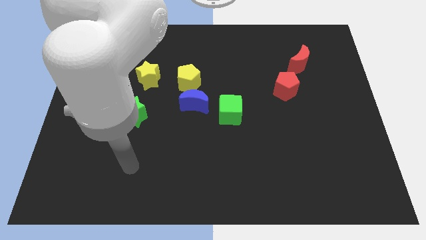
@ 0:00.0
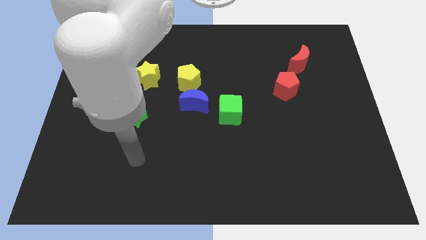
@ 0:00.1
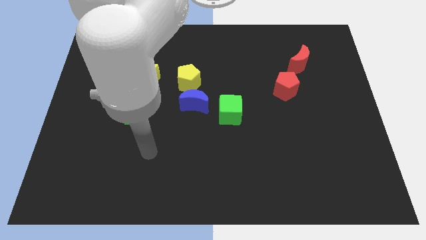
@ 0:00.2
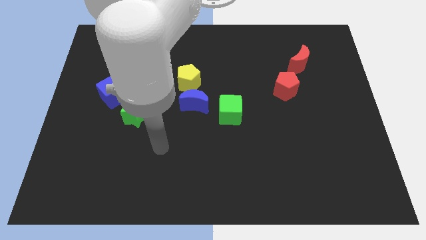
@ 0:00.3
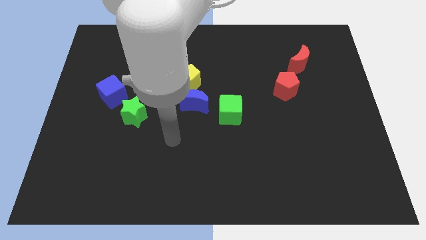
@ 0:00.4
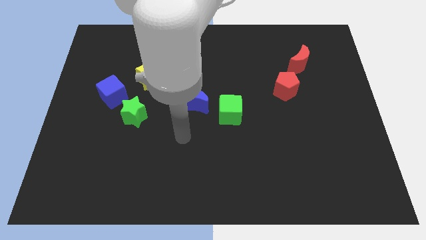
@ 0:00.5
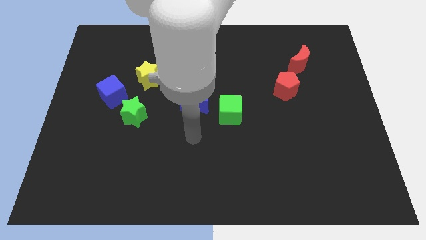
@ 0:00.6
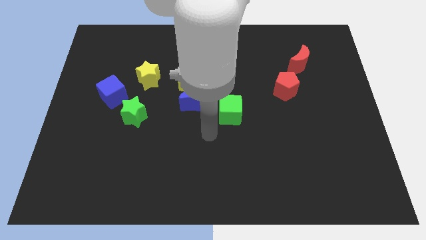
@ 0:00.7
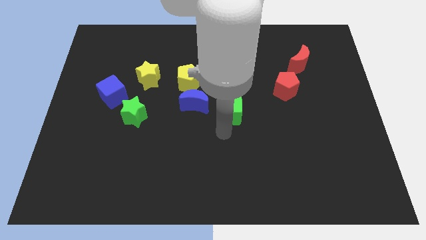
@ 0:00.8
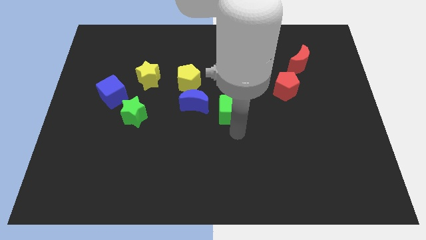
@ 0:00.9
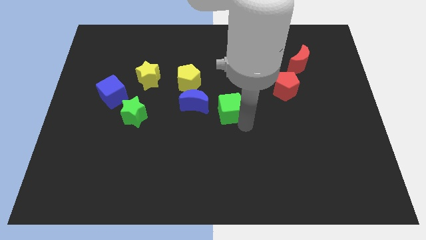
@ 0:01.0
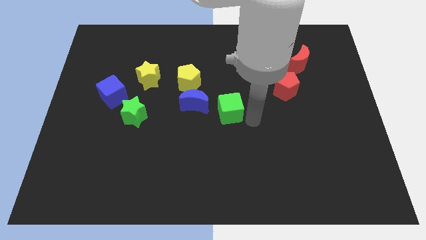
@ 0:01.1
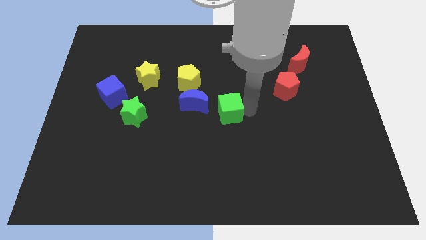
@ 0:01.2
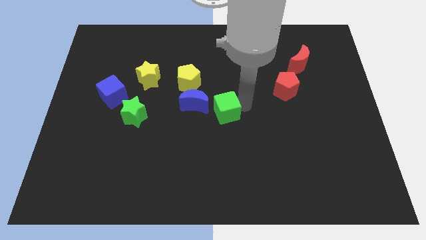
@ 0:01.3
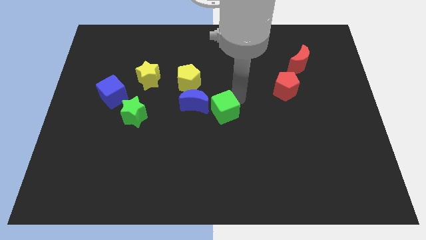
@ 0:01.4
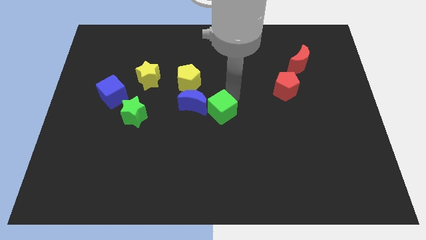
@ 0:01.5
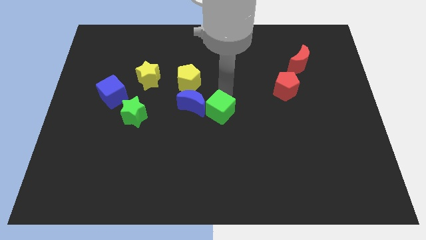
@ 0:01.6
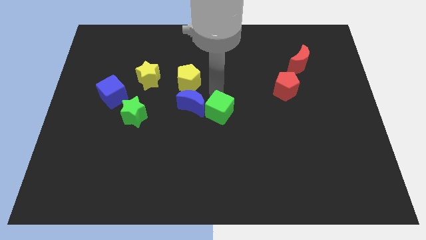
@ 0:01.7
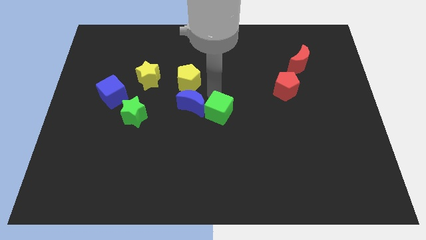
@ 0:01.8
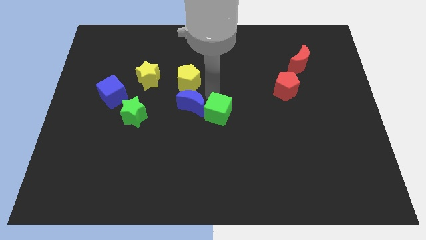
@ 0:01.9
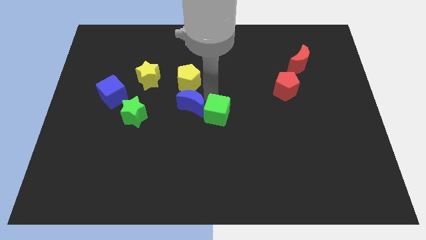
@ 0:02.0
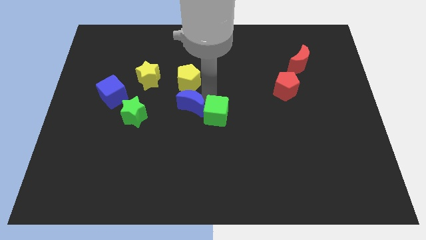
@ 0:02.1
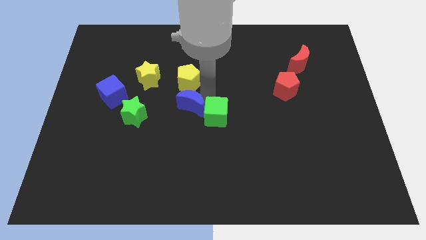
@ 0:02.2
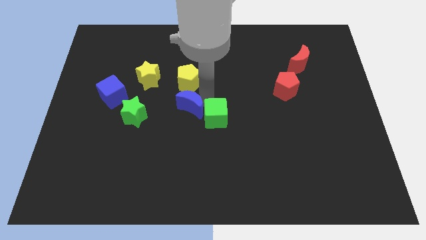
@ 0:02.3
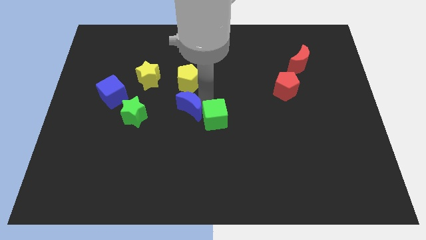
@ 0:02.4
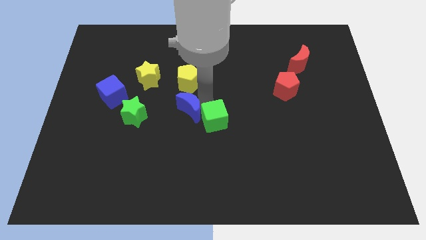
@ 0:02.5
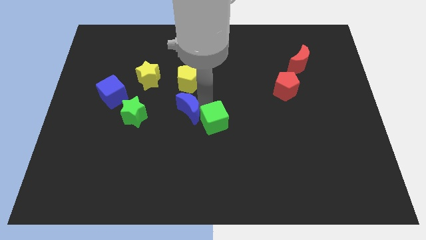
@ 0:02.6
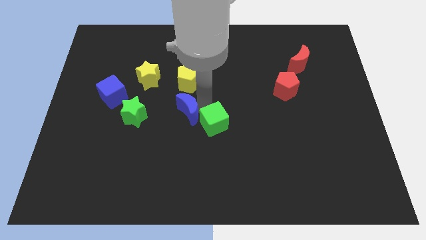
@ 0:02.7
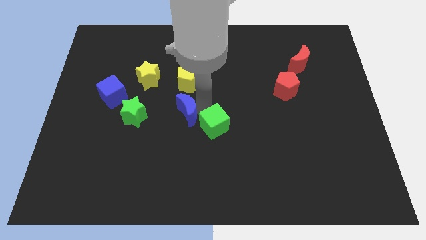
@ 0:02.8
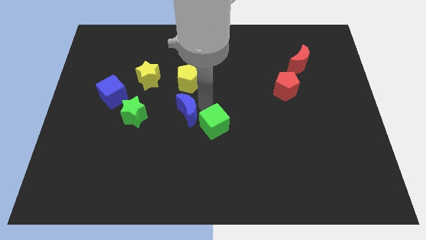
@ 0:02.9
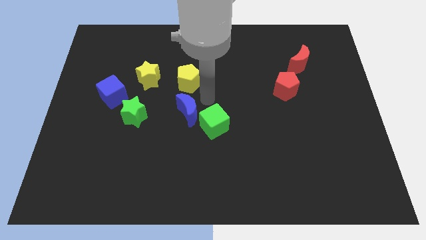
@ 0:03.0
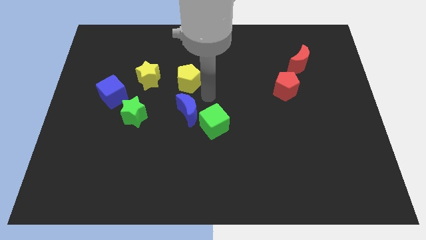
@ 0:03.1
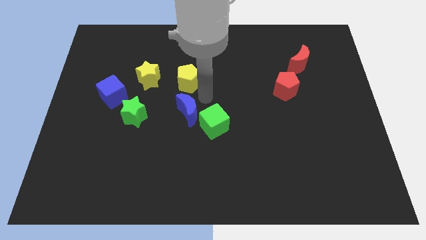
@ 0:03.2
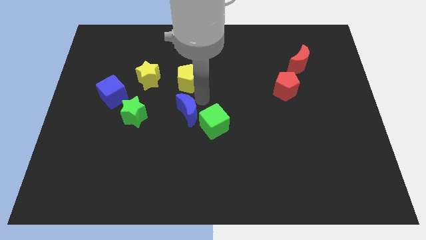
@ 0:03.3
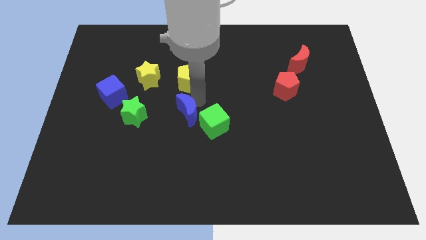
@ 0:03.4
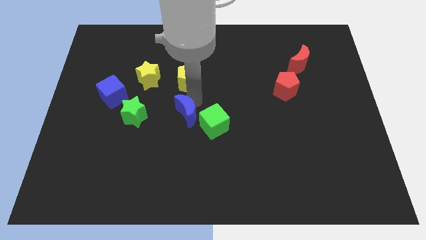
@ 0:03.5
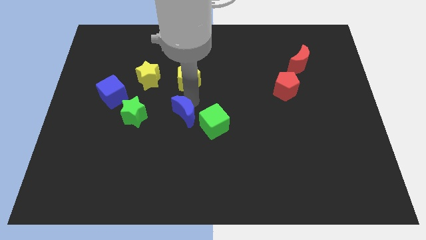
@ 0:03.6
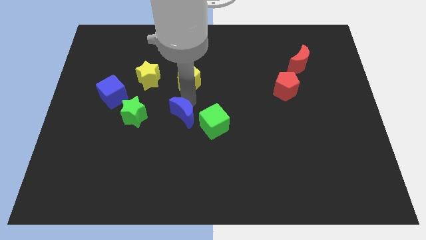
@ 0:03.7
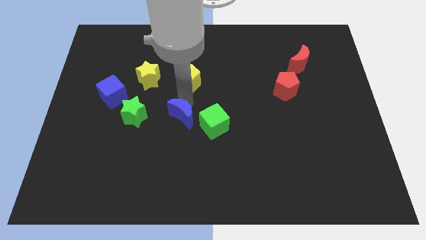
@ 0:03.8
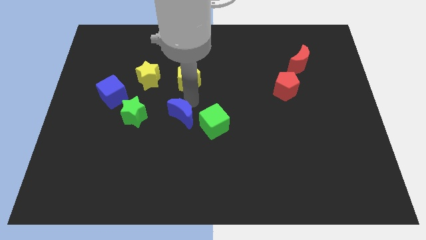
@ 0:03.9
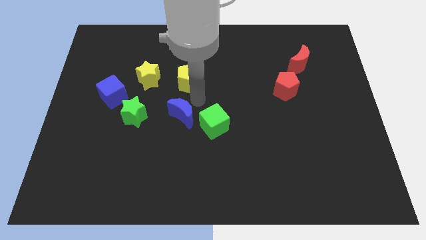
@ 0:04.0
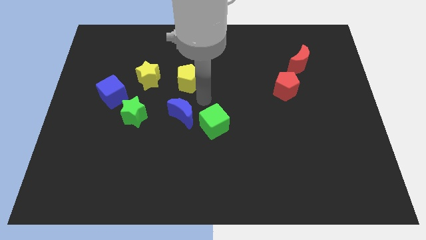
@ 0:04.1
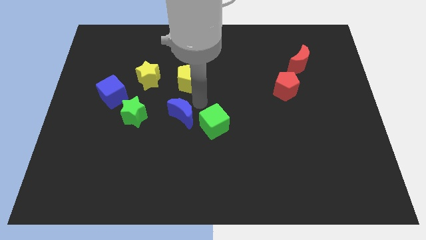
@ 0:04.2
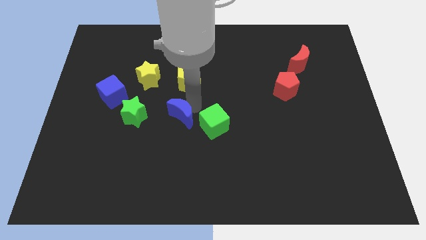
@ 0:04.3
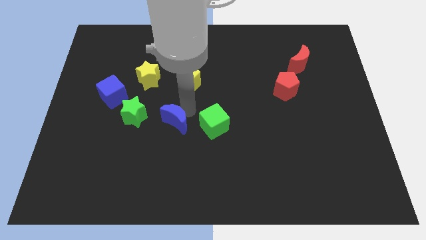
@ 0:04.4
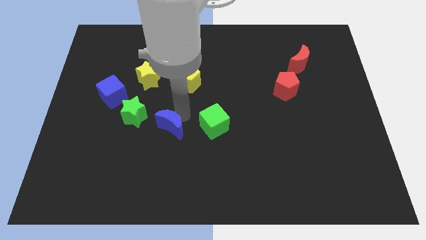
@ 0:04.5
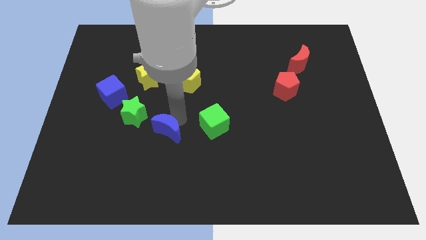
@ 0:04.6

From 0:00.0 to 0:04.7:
pull the blue moon apart from the yellow pentagon and green cube

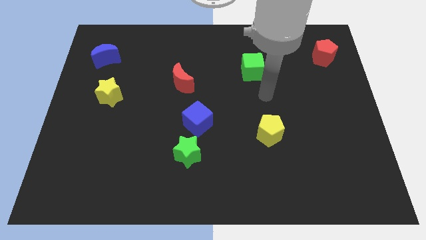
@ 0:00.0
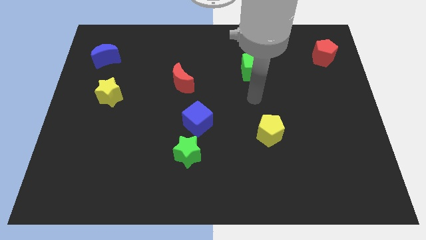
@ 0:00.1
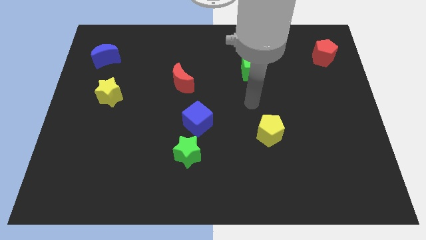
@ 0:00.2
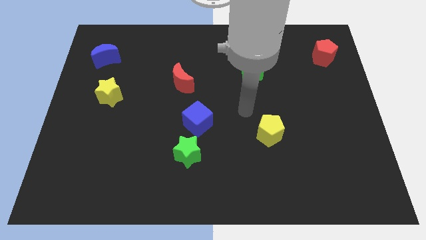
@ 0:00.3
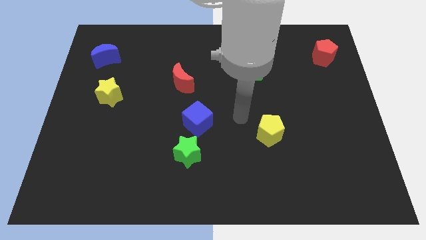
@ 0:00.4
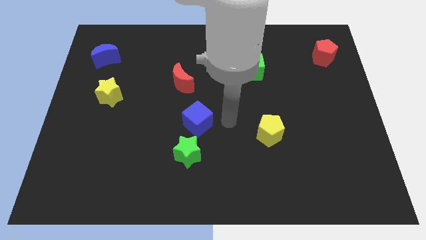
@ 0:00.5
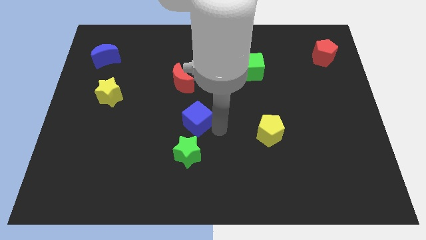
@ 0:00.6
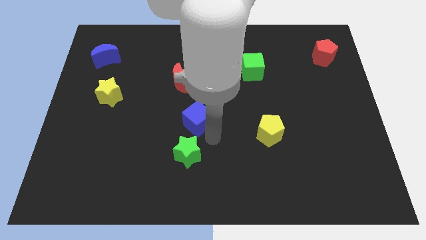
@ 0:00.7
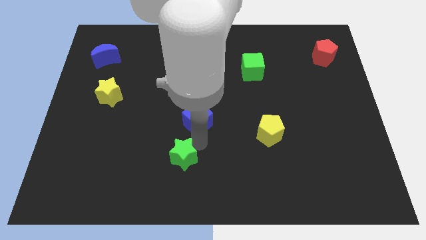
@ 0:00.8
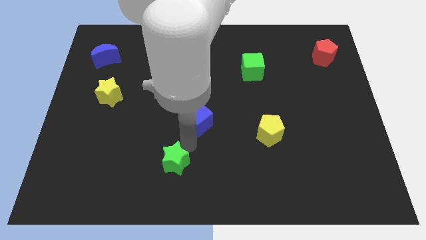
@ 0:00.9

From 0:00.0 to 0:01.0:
pull the blue cube apart from the green star

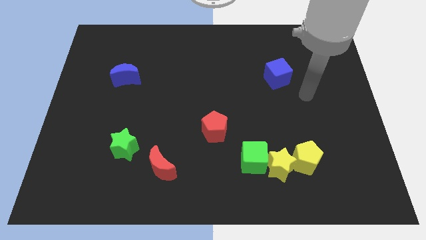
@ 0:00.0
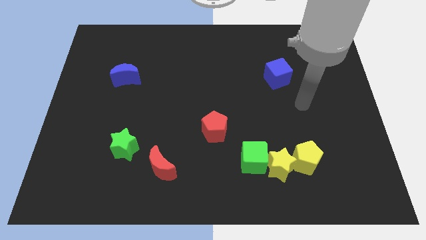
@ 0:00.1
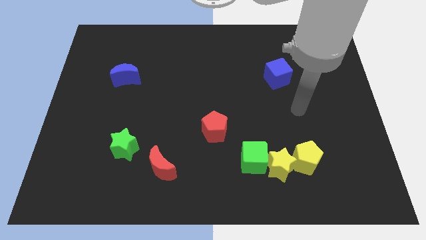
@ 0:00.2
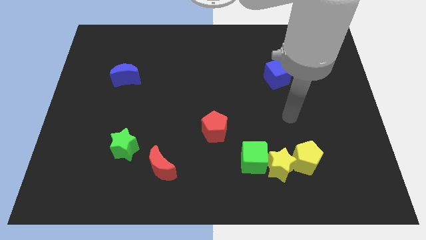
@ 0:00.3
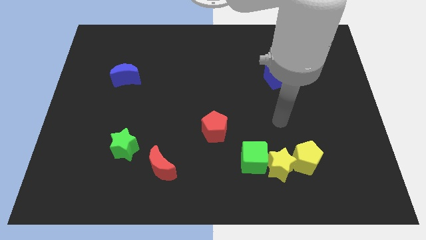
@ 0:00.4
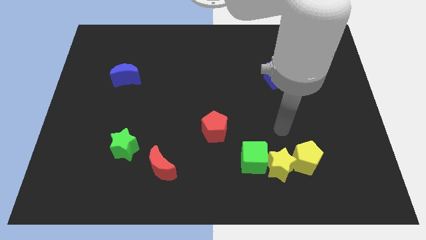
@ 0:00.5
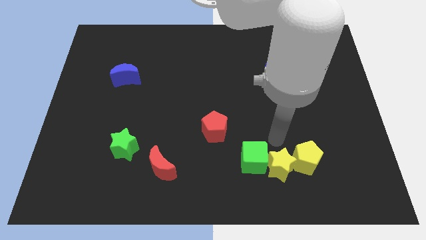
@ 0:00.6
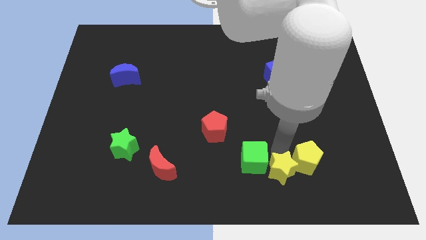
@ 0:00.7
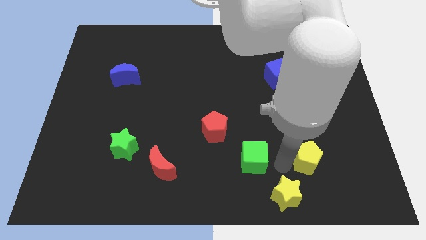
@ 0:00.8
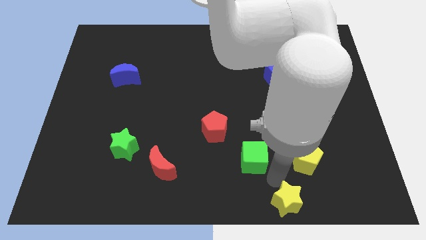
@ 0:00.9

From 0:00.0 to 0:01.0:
move the green cube away from the yellow star

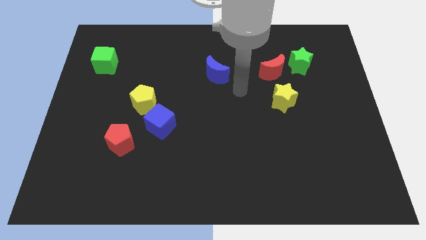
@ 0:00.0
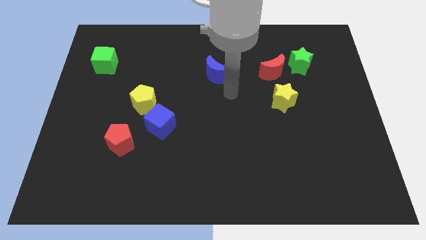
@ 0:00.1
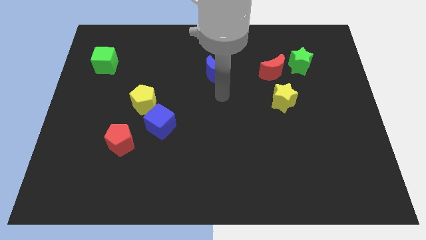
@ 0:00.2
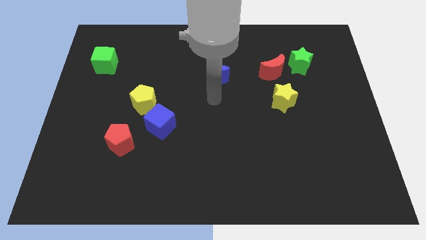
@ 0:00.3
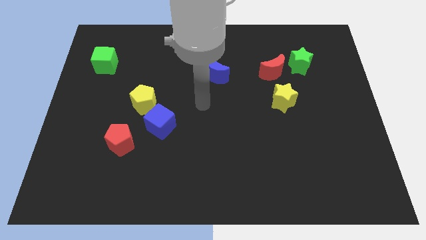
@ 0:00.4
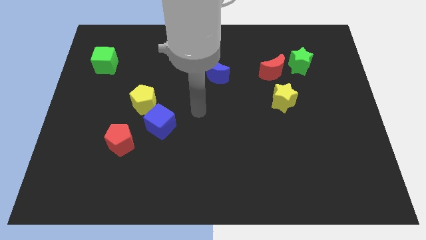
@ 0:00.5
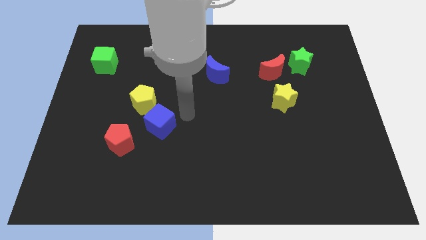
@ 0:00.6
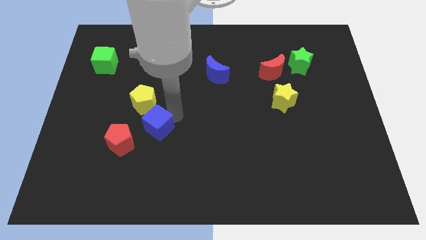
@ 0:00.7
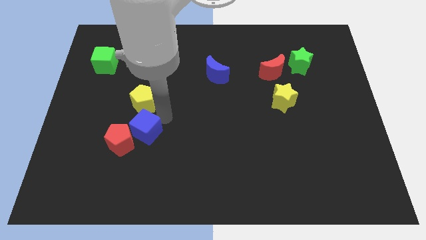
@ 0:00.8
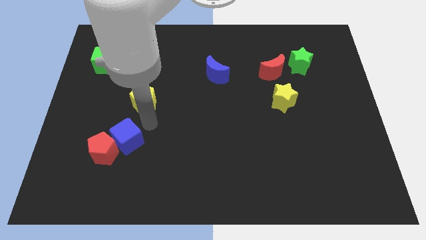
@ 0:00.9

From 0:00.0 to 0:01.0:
move the yellow pentagon away from the blue cube

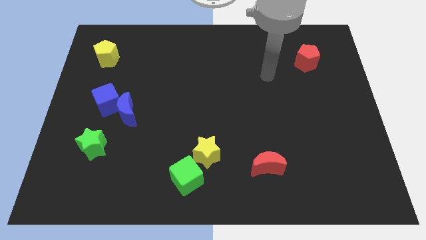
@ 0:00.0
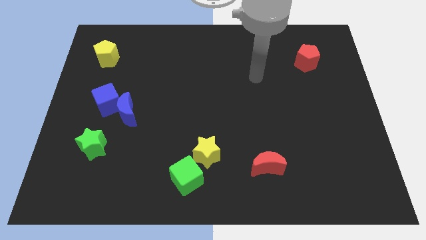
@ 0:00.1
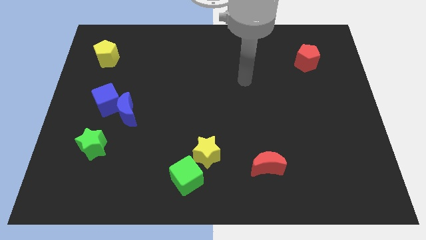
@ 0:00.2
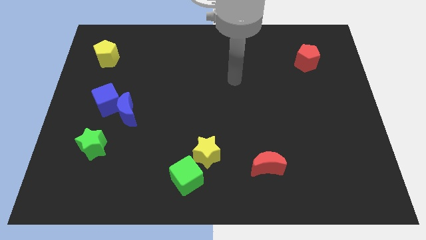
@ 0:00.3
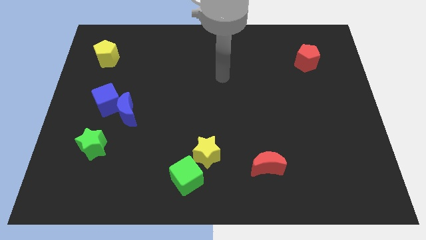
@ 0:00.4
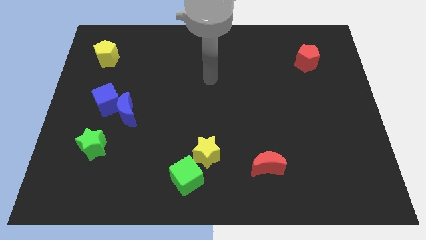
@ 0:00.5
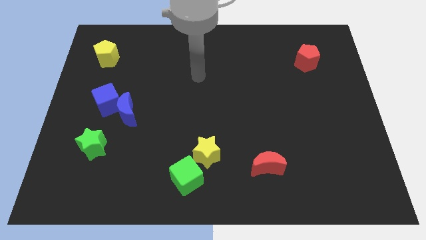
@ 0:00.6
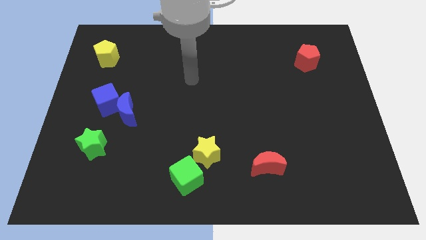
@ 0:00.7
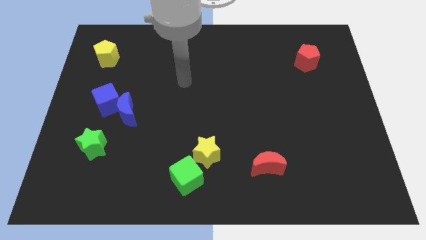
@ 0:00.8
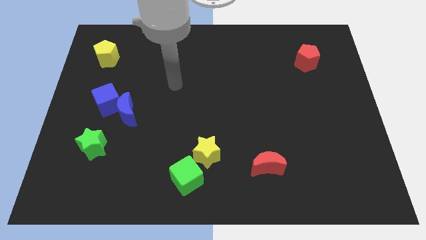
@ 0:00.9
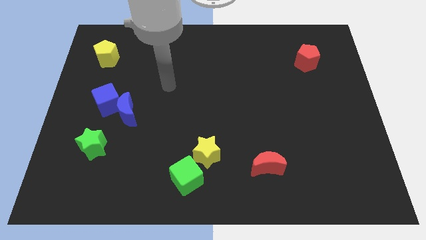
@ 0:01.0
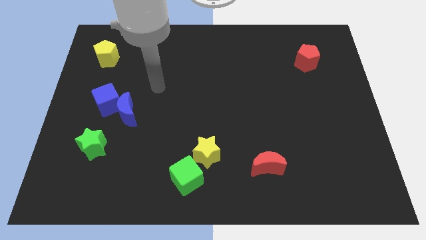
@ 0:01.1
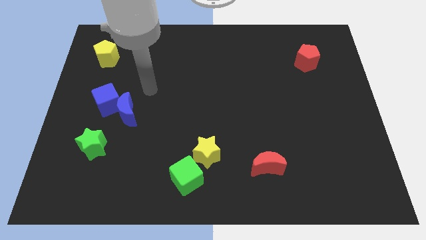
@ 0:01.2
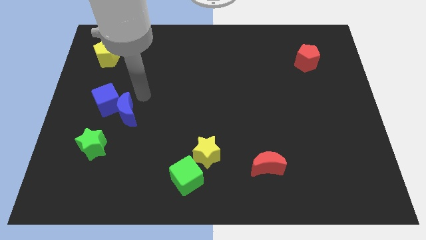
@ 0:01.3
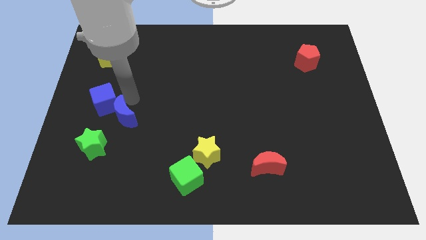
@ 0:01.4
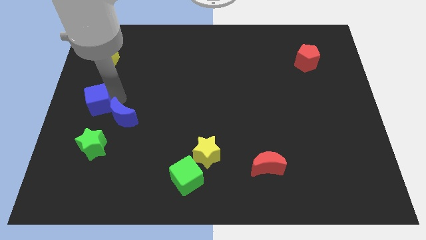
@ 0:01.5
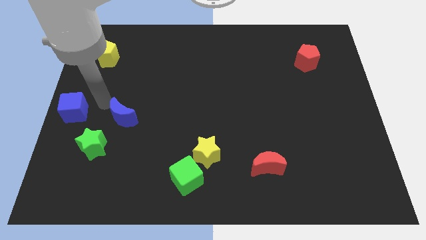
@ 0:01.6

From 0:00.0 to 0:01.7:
separate the blue moon from the blue cube

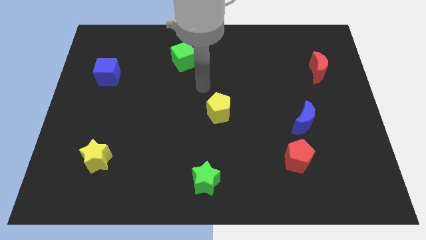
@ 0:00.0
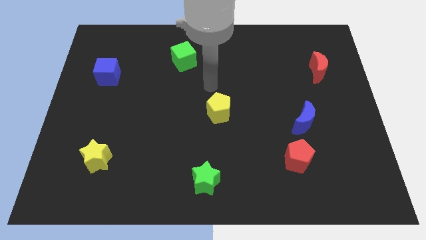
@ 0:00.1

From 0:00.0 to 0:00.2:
separate the red pentagon from the blue moon
